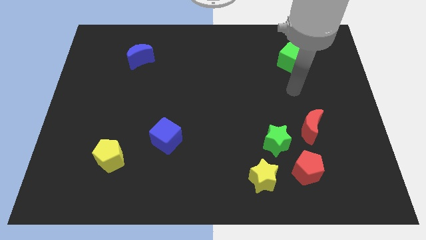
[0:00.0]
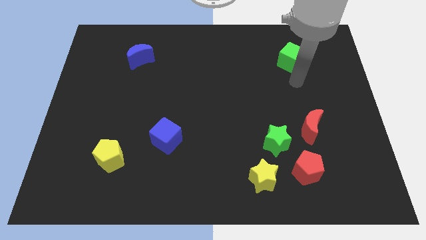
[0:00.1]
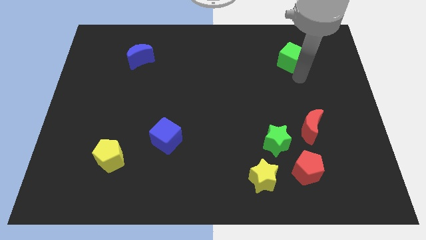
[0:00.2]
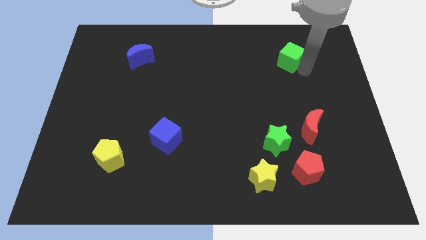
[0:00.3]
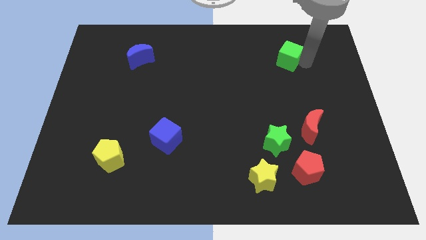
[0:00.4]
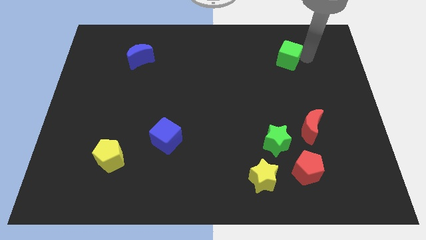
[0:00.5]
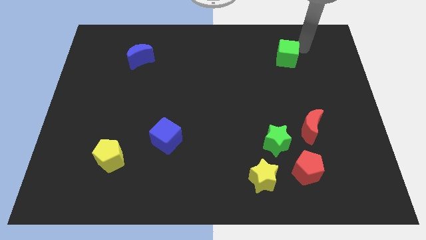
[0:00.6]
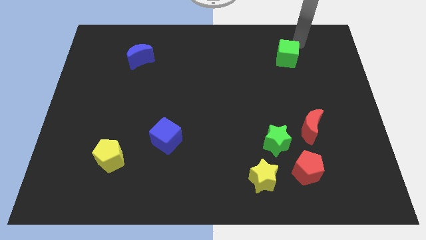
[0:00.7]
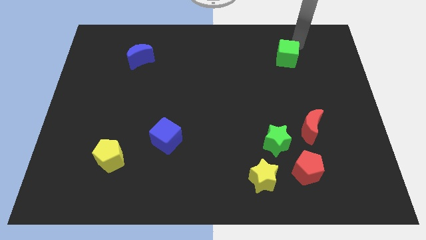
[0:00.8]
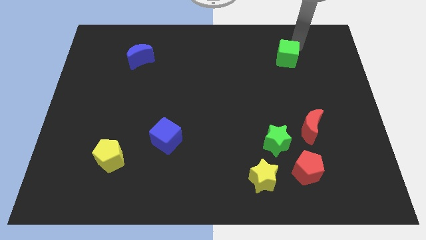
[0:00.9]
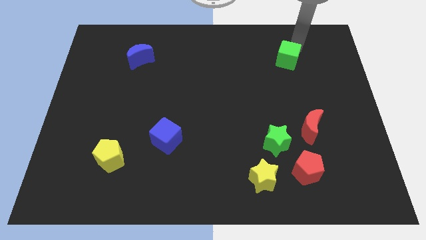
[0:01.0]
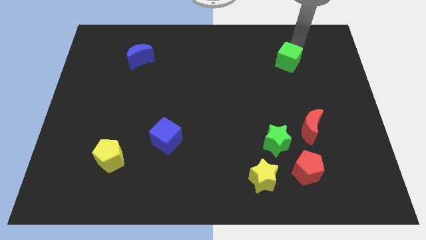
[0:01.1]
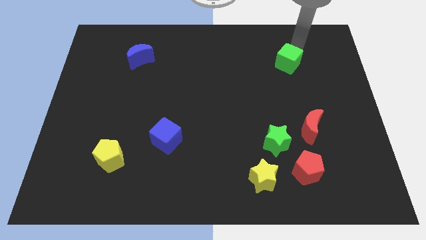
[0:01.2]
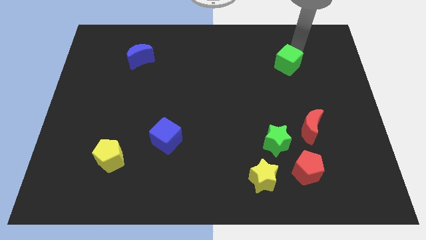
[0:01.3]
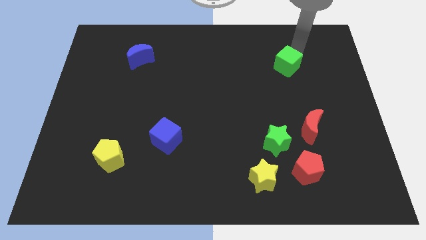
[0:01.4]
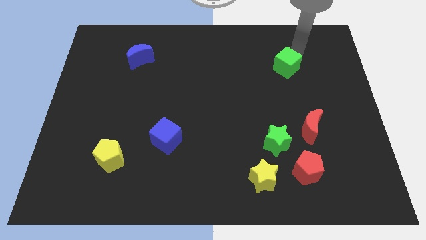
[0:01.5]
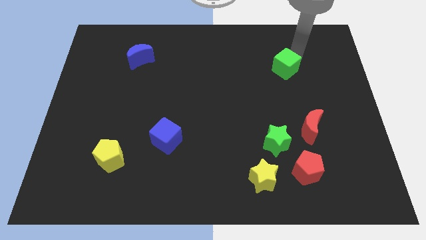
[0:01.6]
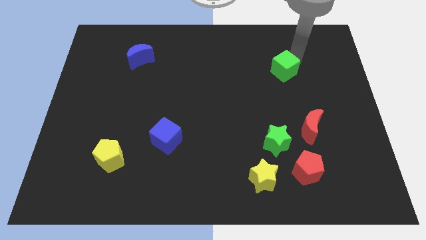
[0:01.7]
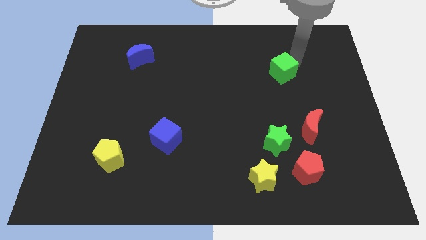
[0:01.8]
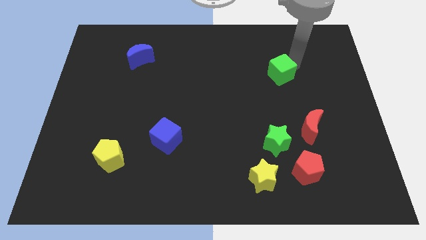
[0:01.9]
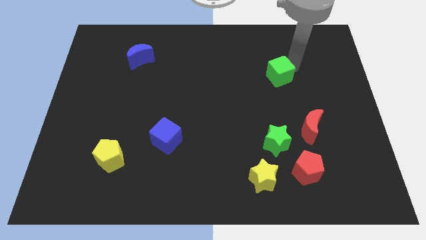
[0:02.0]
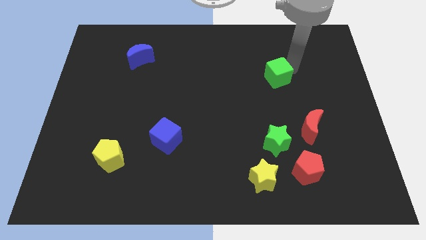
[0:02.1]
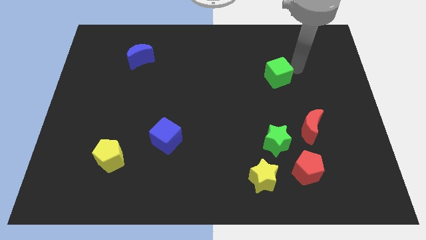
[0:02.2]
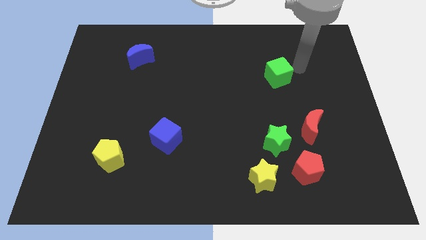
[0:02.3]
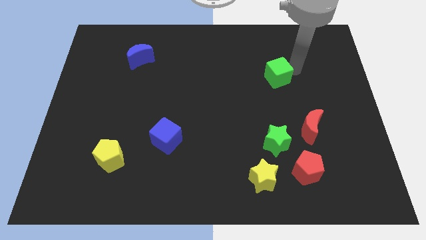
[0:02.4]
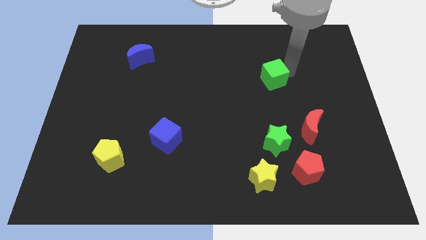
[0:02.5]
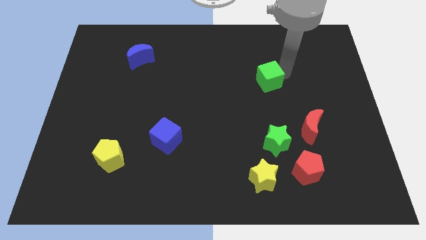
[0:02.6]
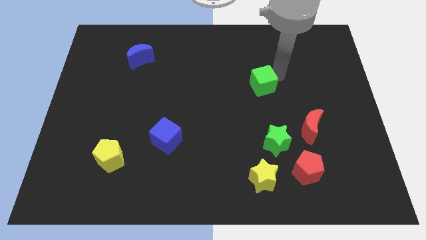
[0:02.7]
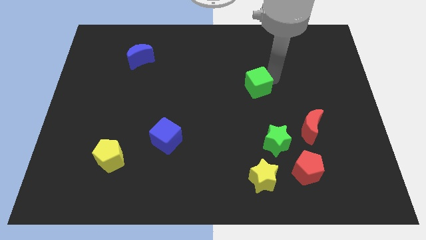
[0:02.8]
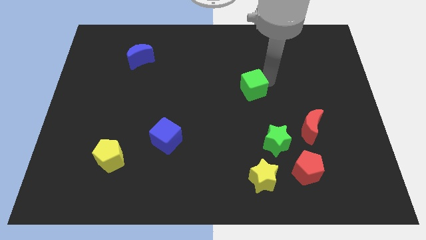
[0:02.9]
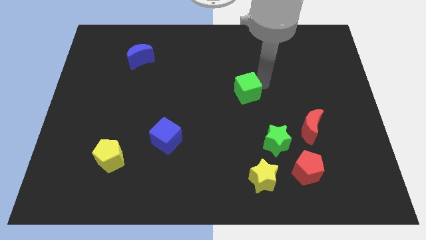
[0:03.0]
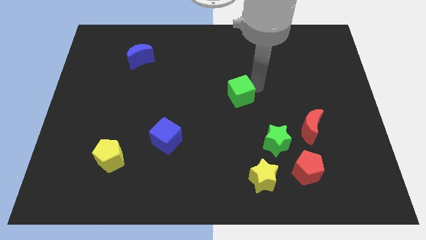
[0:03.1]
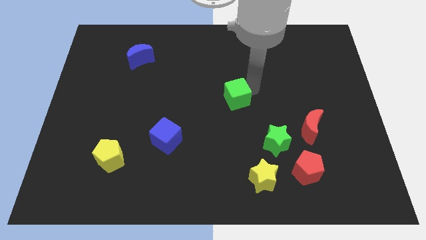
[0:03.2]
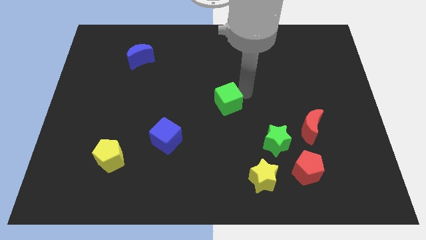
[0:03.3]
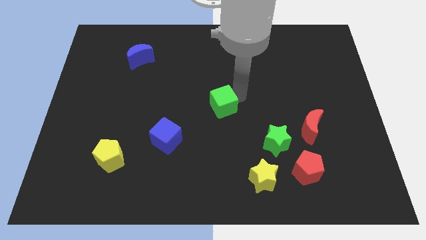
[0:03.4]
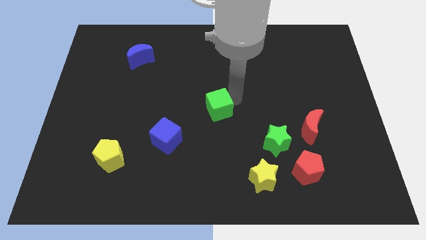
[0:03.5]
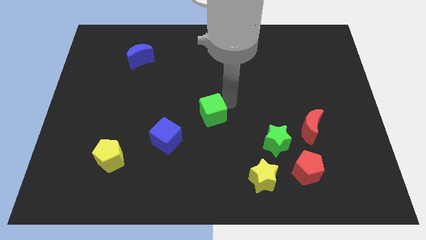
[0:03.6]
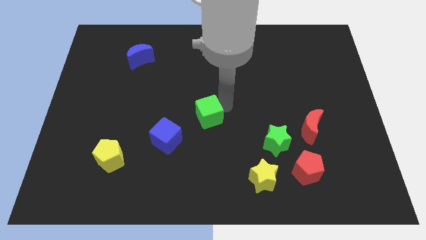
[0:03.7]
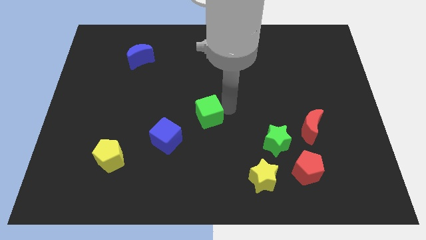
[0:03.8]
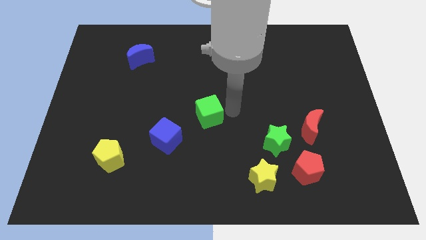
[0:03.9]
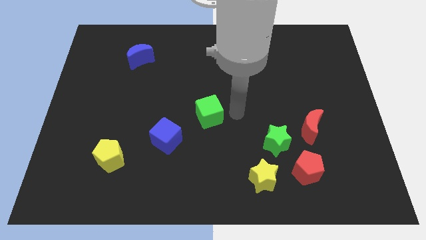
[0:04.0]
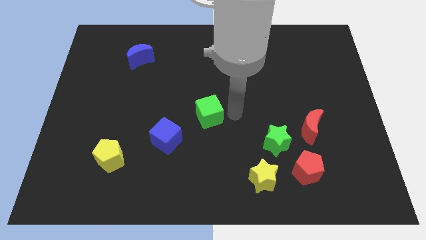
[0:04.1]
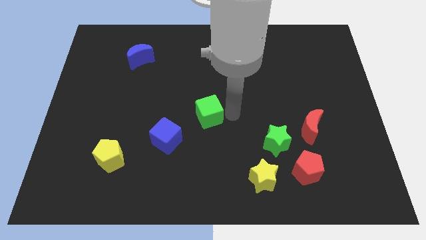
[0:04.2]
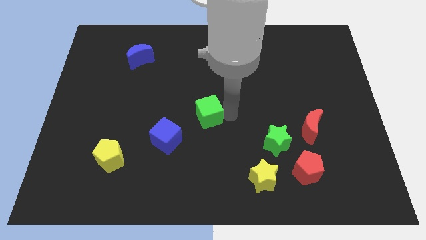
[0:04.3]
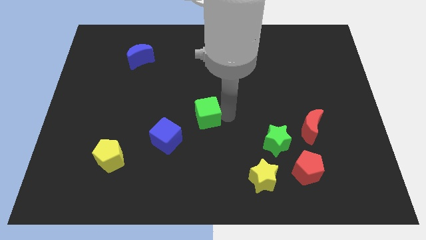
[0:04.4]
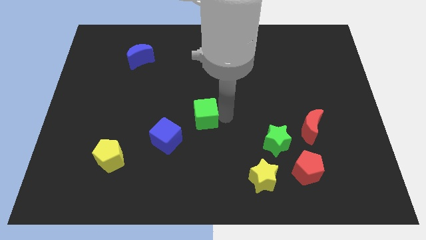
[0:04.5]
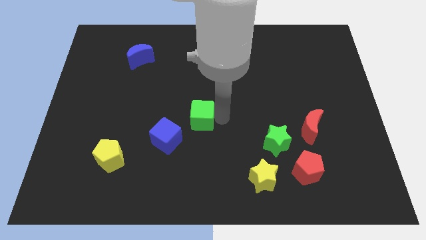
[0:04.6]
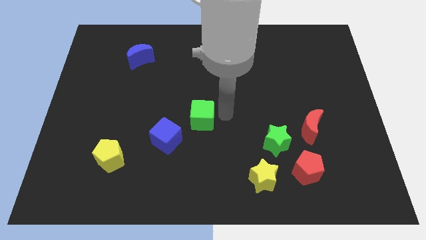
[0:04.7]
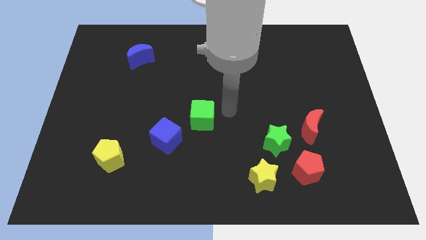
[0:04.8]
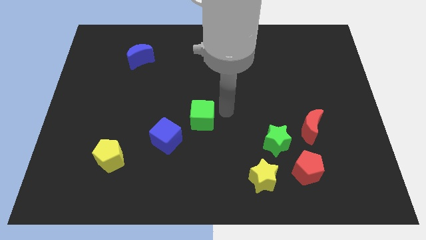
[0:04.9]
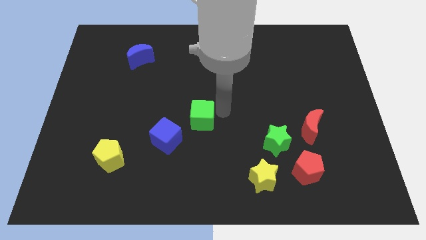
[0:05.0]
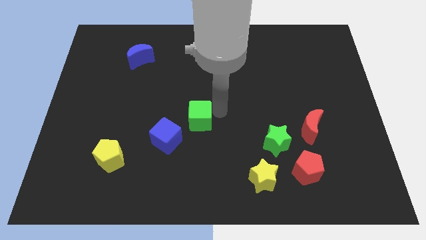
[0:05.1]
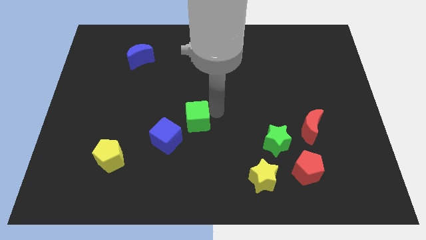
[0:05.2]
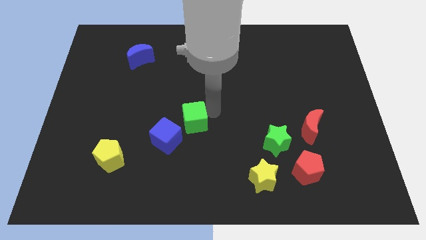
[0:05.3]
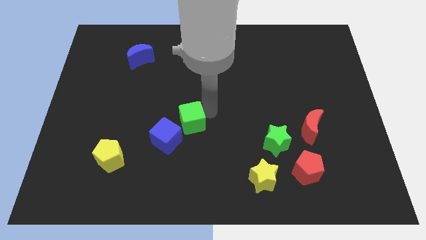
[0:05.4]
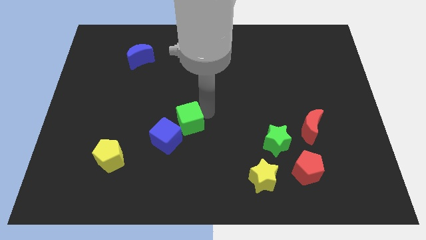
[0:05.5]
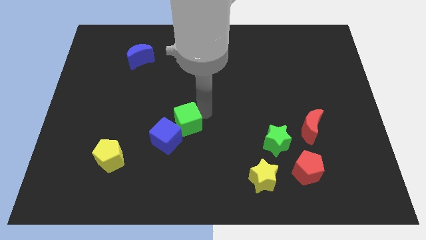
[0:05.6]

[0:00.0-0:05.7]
push the green cube close to the blue cube

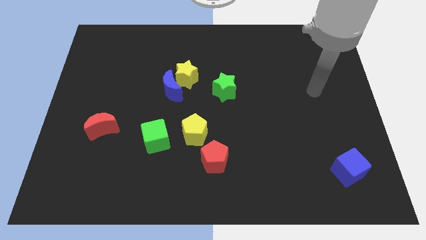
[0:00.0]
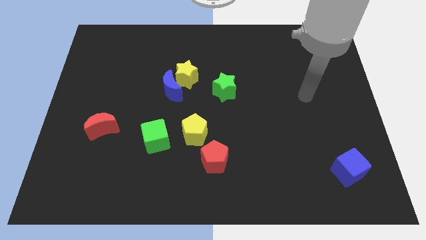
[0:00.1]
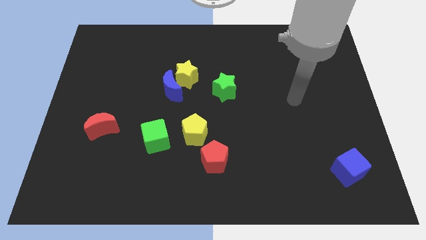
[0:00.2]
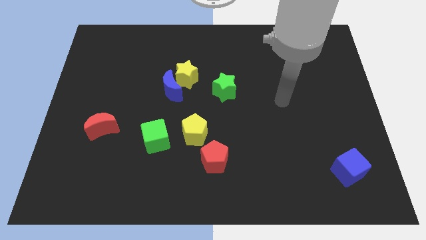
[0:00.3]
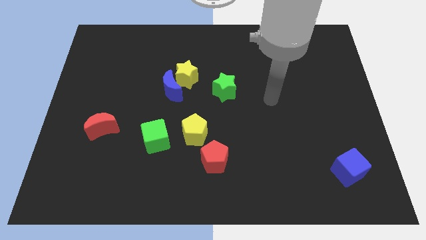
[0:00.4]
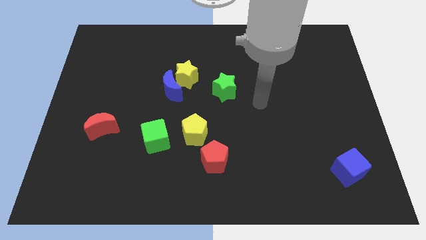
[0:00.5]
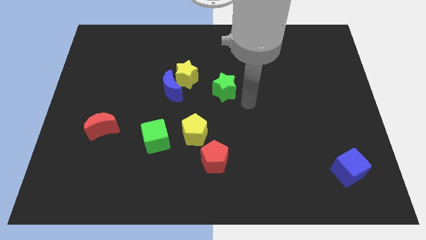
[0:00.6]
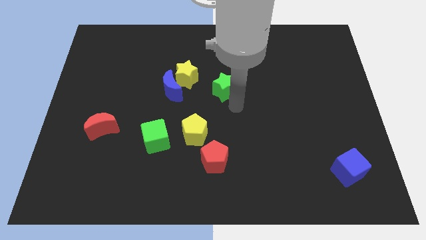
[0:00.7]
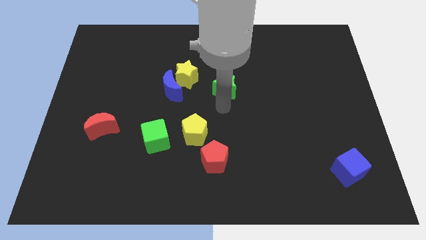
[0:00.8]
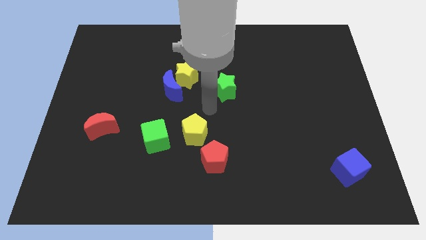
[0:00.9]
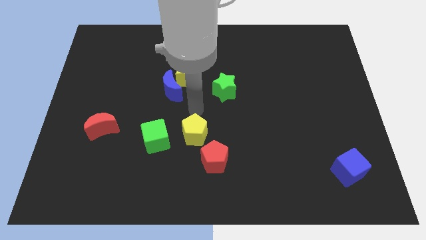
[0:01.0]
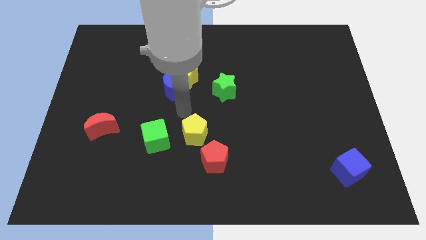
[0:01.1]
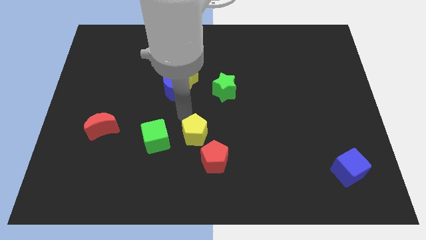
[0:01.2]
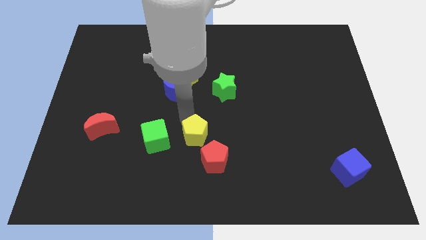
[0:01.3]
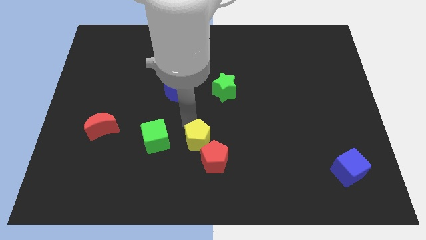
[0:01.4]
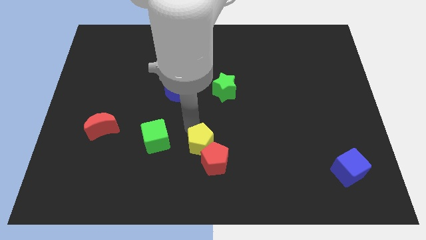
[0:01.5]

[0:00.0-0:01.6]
push the yellow pentagon close to the red pentagon
